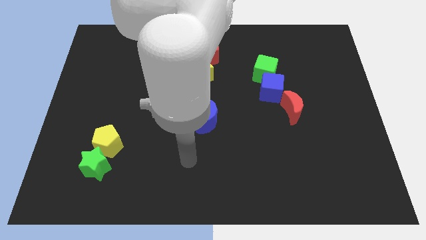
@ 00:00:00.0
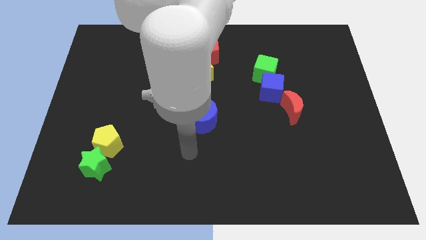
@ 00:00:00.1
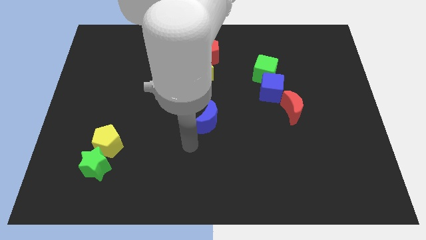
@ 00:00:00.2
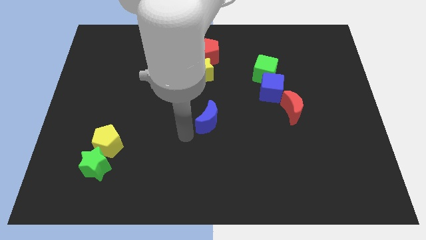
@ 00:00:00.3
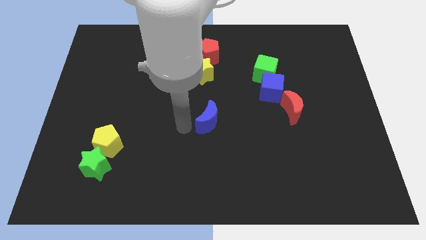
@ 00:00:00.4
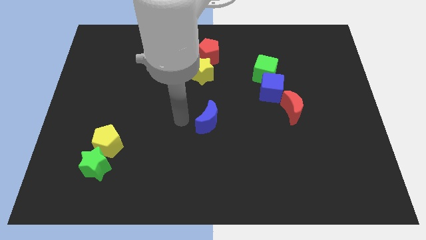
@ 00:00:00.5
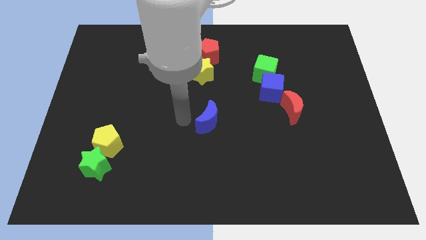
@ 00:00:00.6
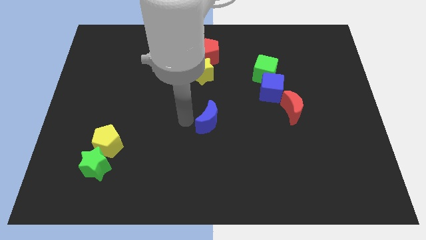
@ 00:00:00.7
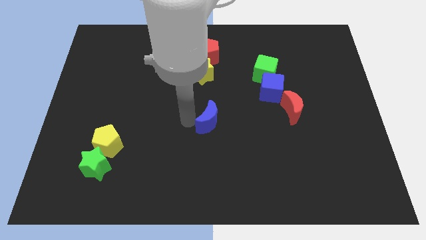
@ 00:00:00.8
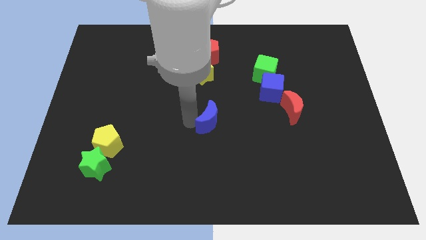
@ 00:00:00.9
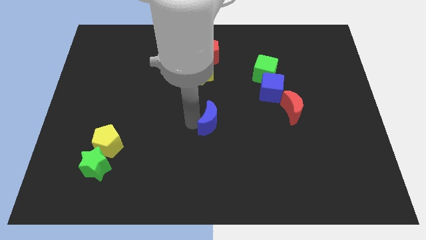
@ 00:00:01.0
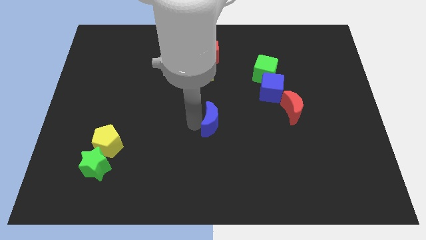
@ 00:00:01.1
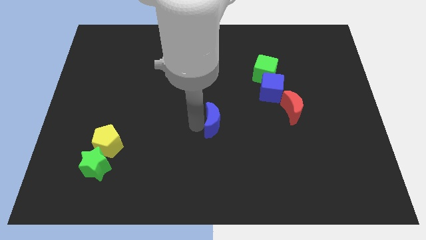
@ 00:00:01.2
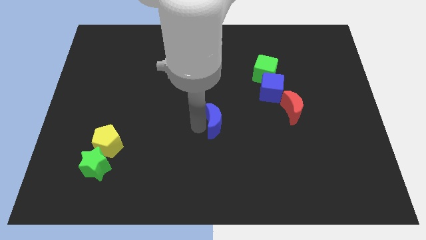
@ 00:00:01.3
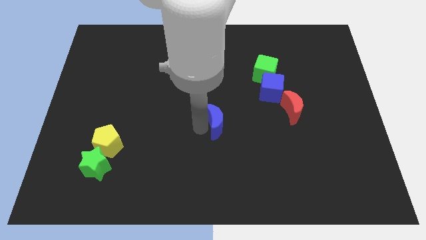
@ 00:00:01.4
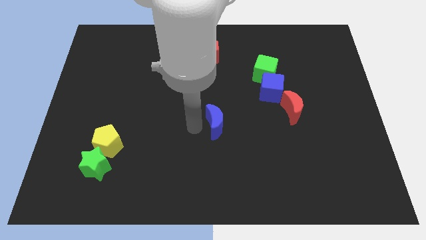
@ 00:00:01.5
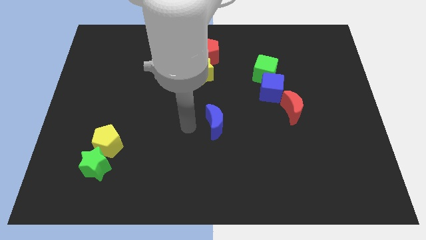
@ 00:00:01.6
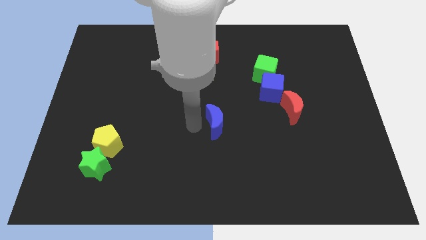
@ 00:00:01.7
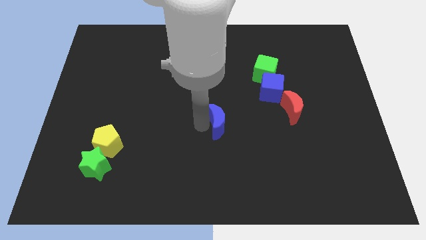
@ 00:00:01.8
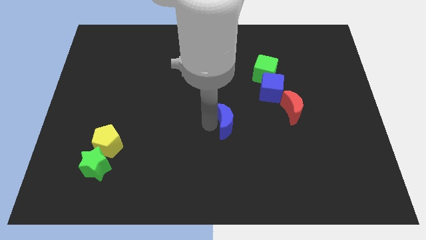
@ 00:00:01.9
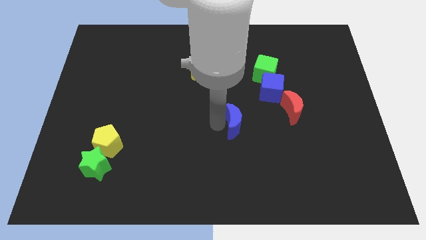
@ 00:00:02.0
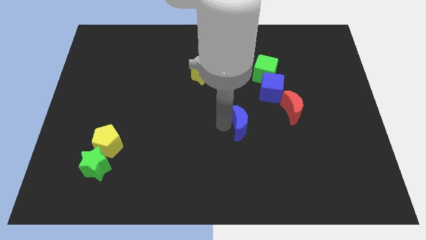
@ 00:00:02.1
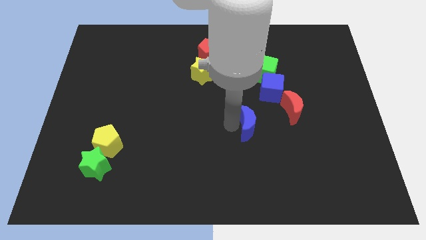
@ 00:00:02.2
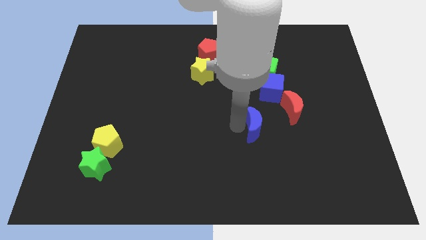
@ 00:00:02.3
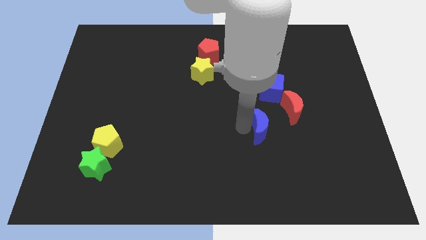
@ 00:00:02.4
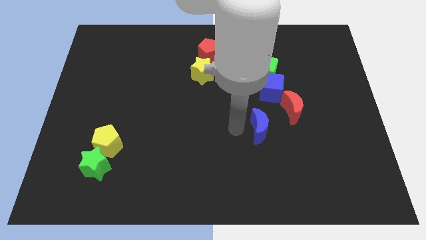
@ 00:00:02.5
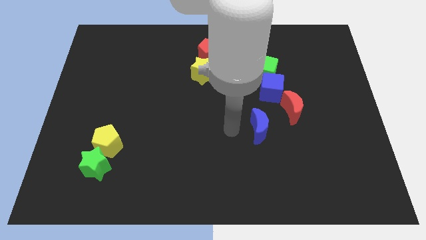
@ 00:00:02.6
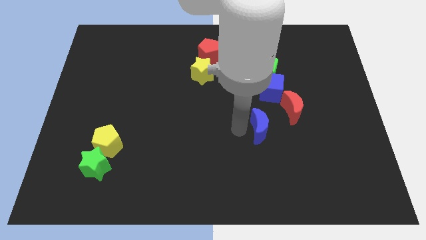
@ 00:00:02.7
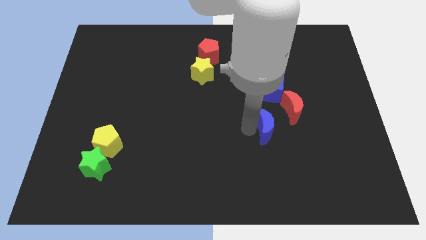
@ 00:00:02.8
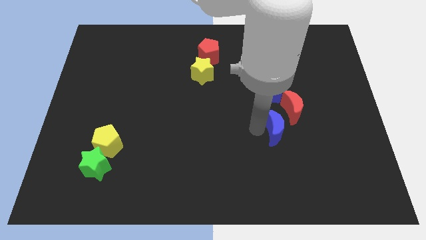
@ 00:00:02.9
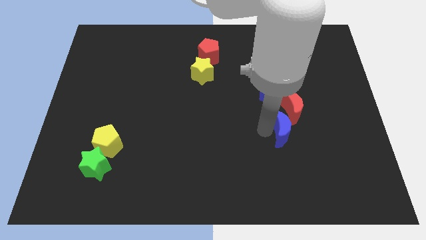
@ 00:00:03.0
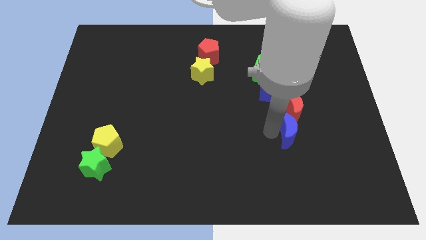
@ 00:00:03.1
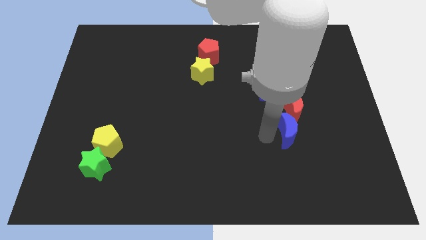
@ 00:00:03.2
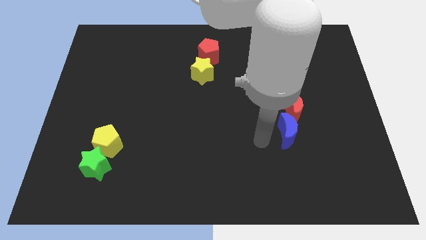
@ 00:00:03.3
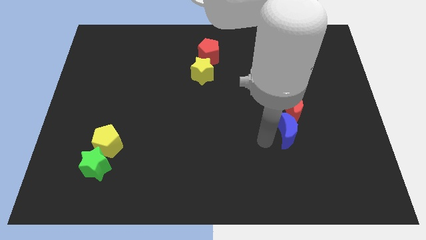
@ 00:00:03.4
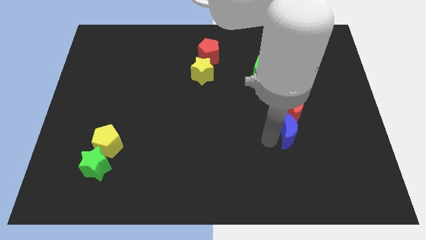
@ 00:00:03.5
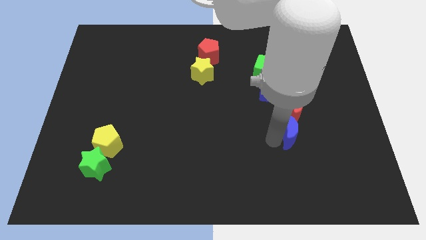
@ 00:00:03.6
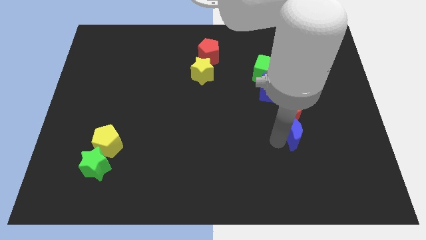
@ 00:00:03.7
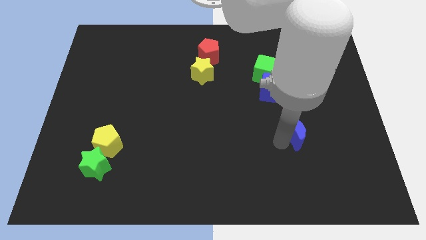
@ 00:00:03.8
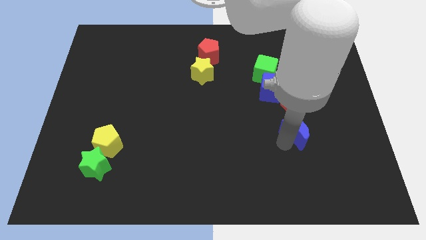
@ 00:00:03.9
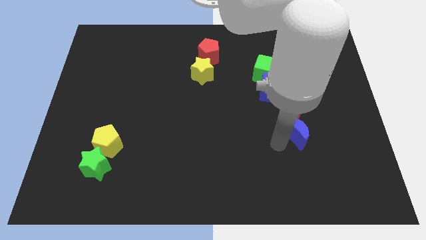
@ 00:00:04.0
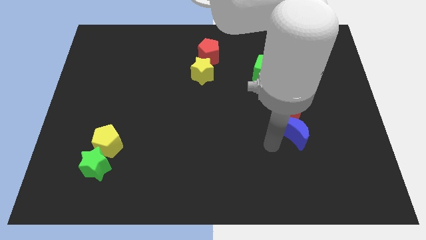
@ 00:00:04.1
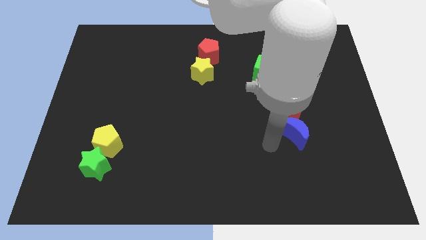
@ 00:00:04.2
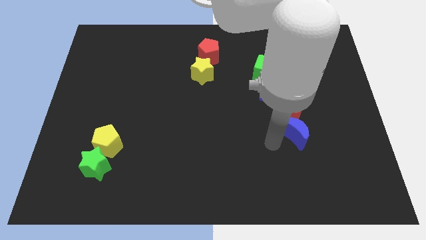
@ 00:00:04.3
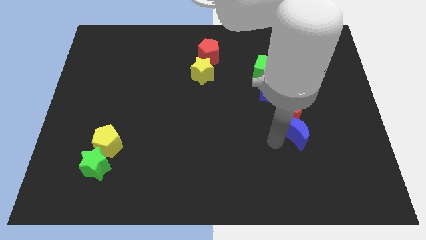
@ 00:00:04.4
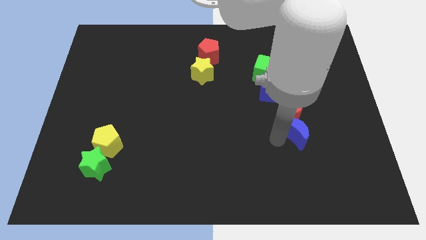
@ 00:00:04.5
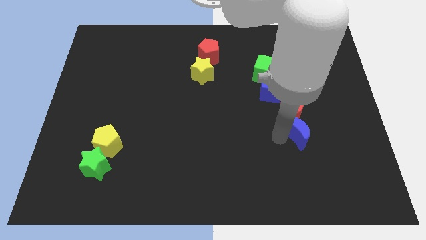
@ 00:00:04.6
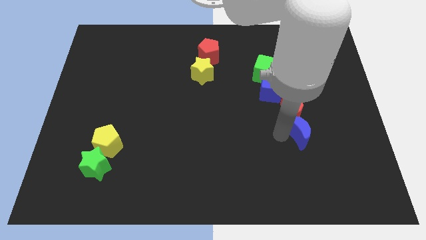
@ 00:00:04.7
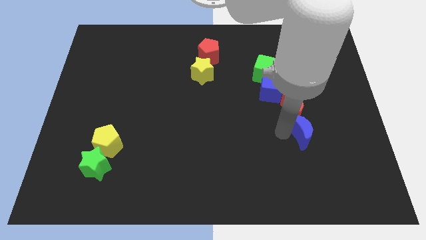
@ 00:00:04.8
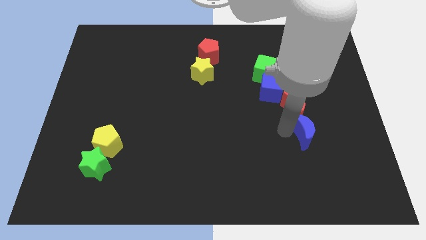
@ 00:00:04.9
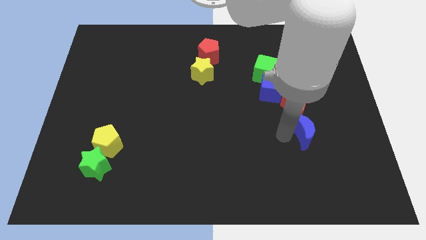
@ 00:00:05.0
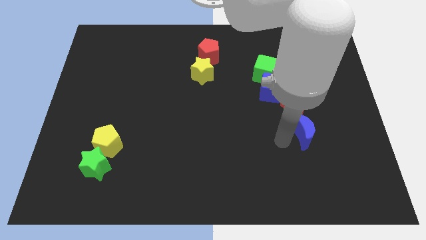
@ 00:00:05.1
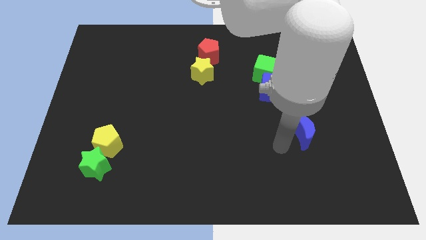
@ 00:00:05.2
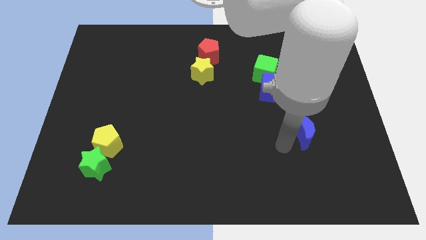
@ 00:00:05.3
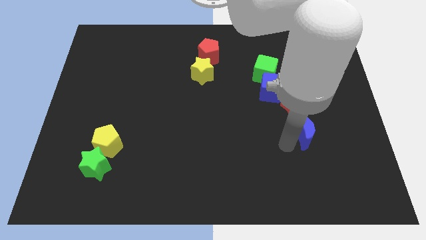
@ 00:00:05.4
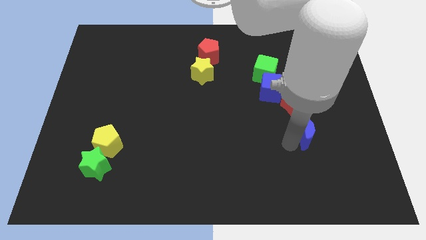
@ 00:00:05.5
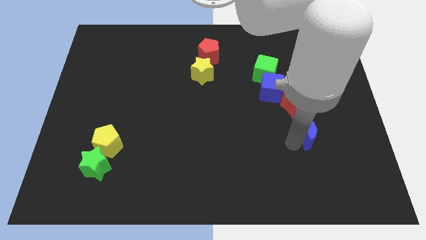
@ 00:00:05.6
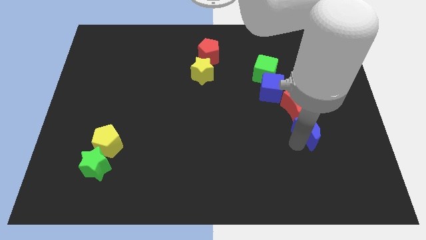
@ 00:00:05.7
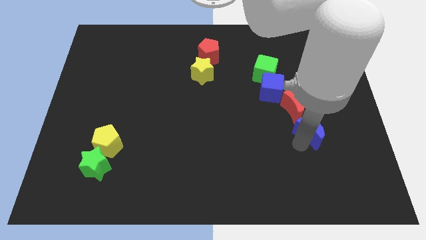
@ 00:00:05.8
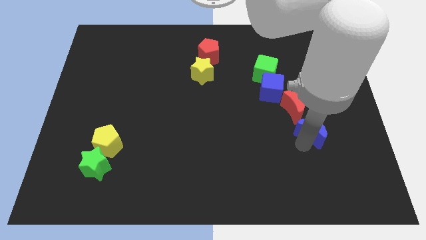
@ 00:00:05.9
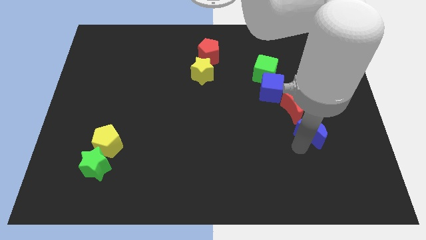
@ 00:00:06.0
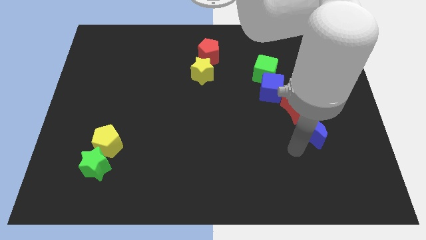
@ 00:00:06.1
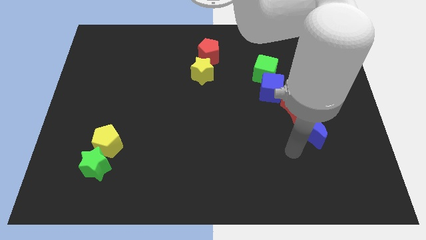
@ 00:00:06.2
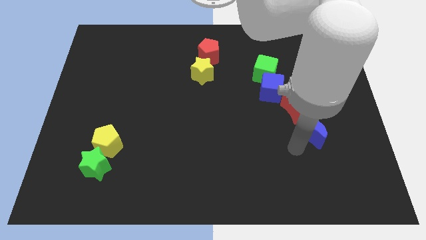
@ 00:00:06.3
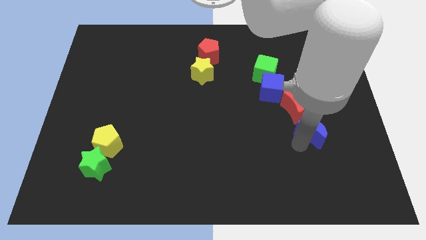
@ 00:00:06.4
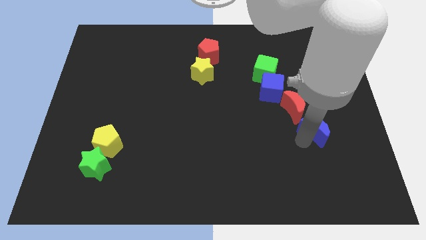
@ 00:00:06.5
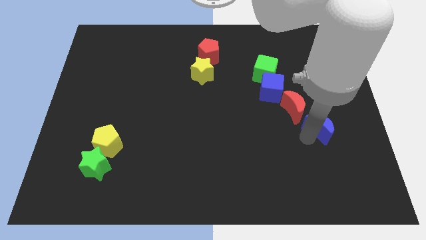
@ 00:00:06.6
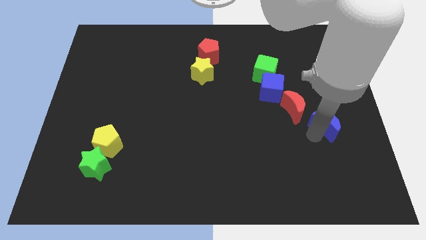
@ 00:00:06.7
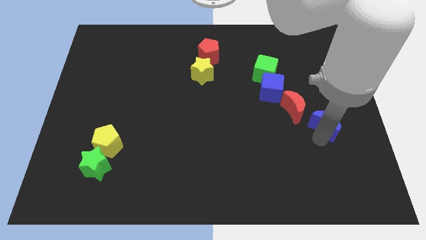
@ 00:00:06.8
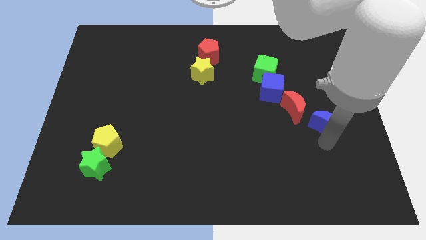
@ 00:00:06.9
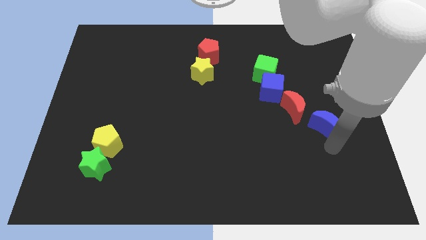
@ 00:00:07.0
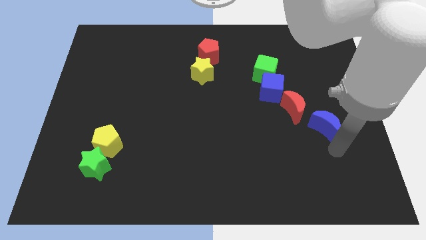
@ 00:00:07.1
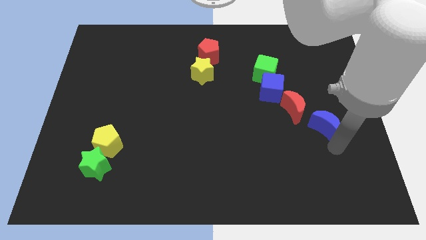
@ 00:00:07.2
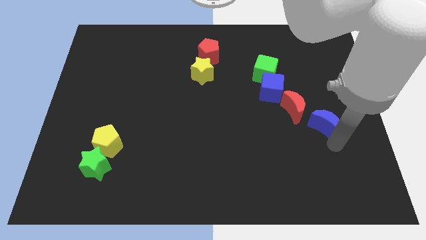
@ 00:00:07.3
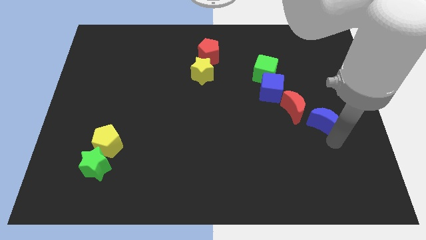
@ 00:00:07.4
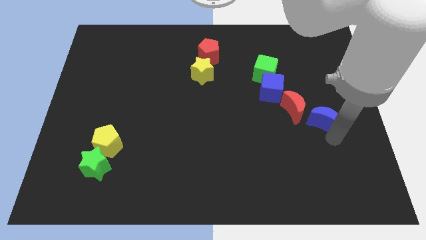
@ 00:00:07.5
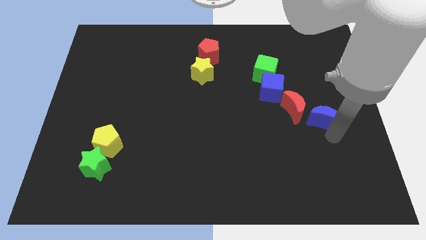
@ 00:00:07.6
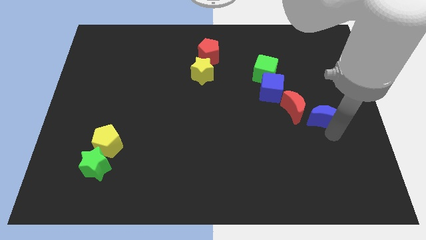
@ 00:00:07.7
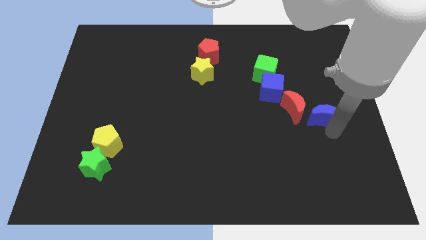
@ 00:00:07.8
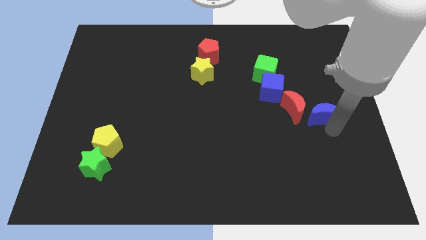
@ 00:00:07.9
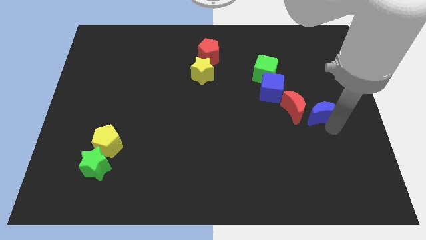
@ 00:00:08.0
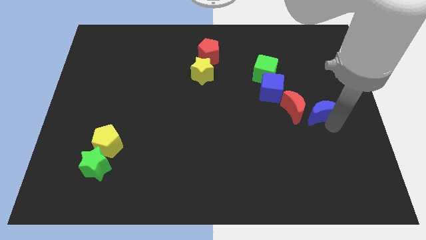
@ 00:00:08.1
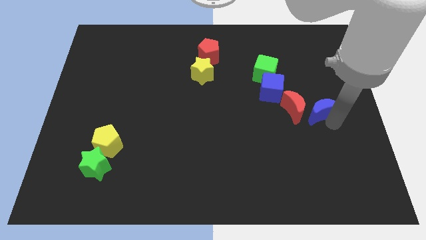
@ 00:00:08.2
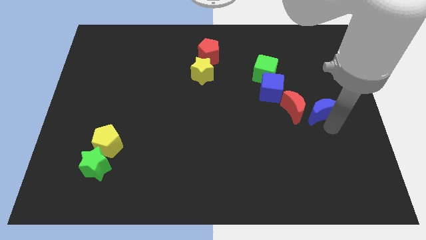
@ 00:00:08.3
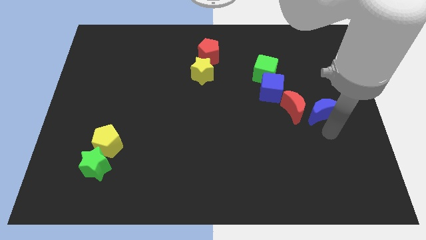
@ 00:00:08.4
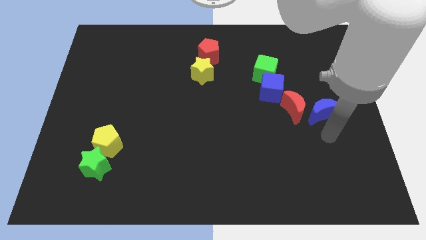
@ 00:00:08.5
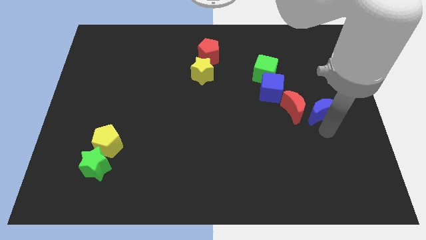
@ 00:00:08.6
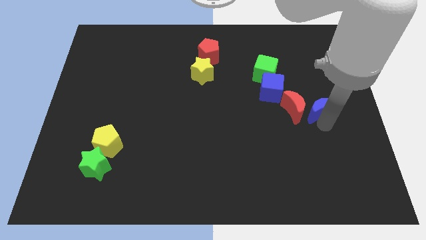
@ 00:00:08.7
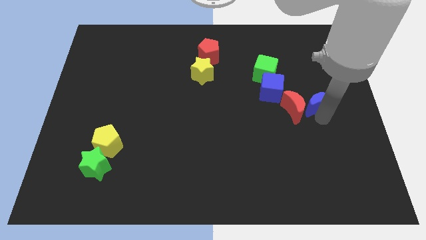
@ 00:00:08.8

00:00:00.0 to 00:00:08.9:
move the blue moon right of the blue cube
